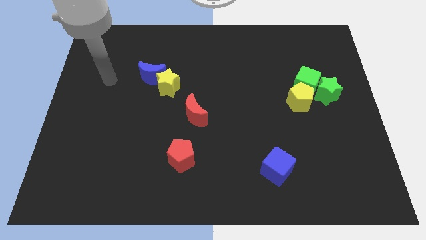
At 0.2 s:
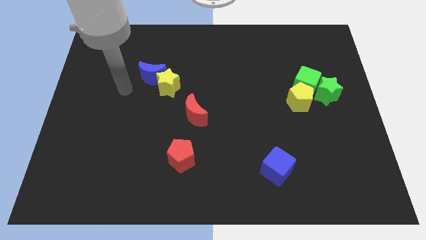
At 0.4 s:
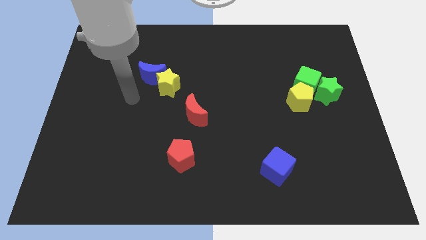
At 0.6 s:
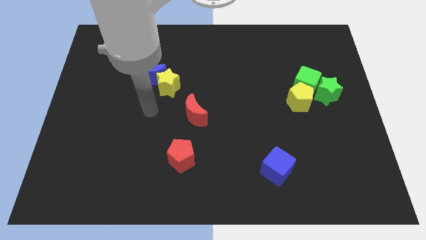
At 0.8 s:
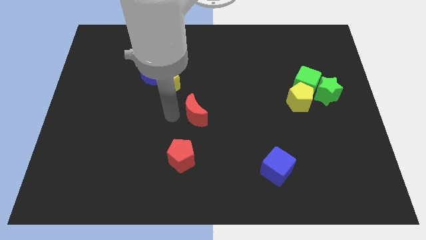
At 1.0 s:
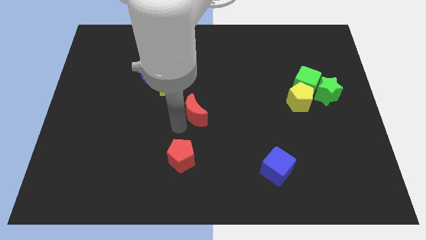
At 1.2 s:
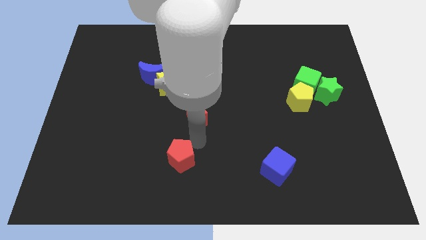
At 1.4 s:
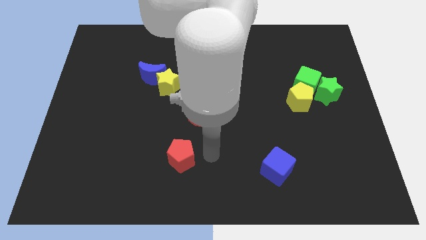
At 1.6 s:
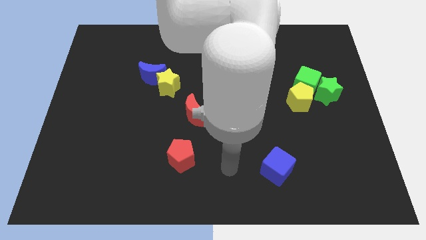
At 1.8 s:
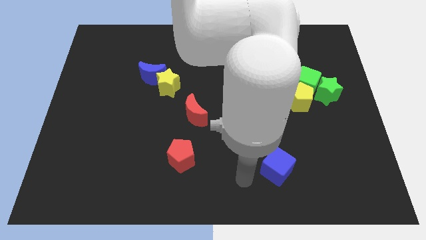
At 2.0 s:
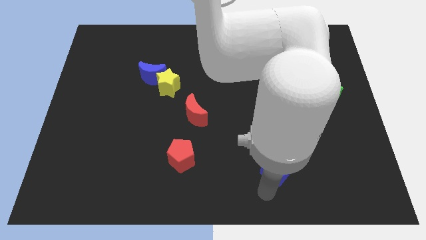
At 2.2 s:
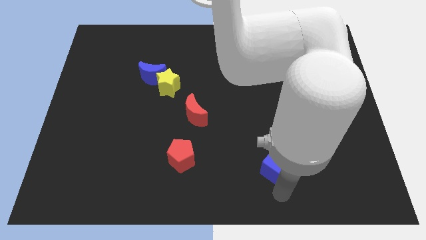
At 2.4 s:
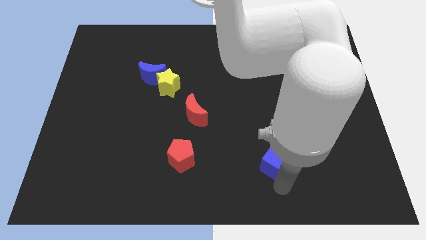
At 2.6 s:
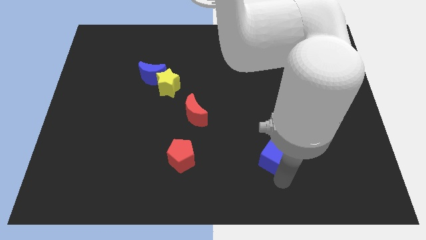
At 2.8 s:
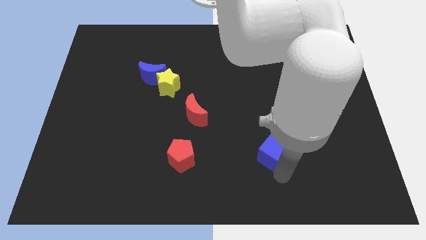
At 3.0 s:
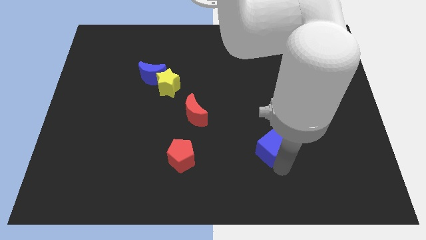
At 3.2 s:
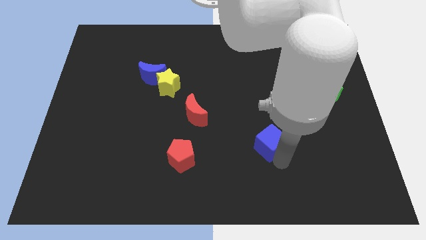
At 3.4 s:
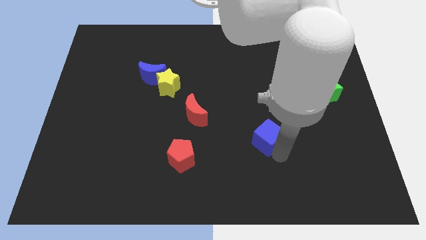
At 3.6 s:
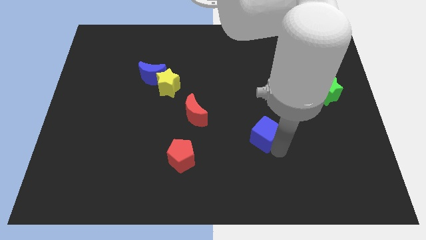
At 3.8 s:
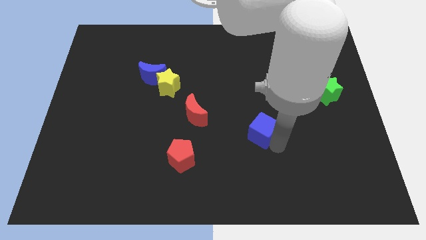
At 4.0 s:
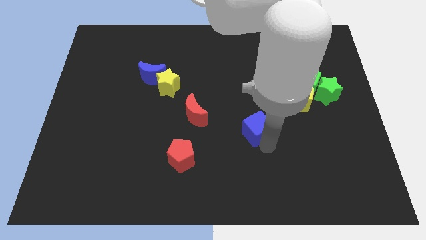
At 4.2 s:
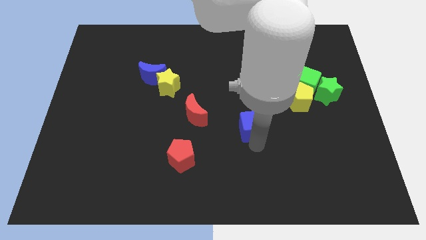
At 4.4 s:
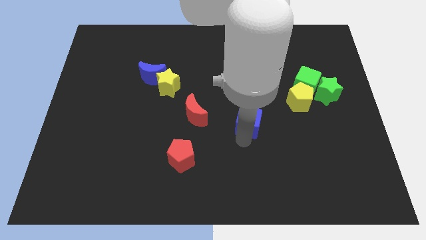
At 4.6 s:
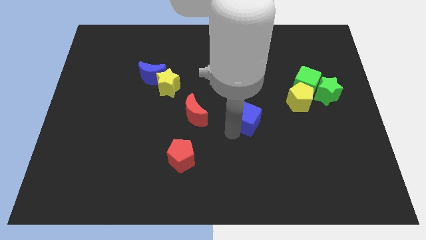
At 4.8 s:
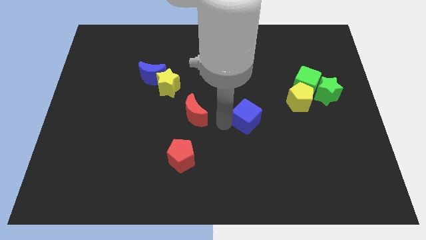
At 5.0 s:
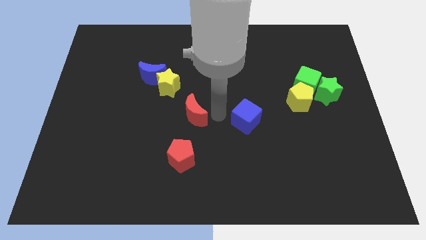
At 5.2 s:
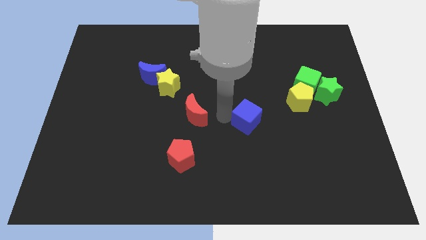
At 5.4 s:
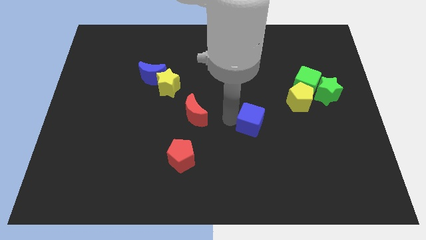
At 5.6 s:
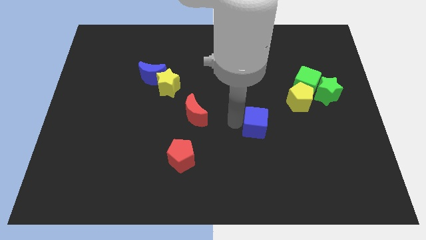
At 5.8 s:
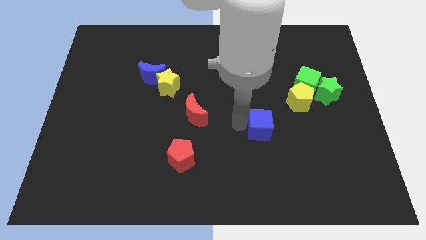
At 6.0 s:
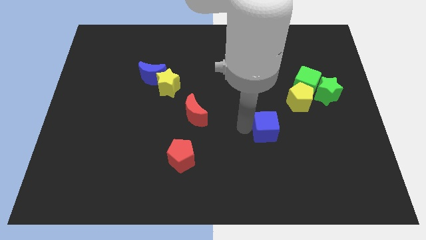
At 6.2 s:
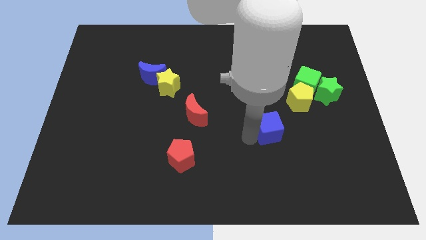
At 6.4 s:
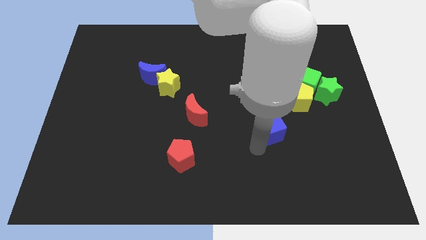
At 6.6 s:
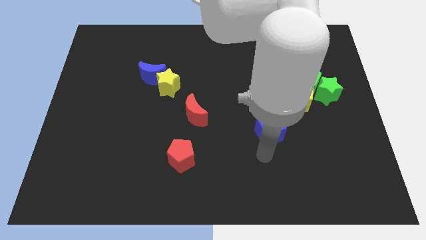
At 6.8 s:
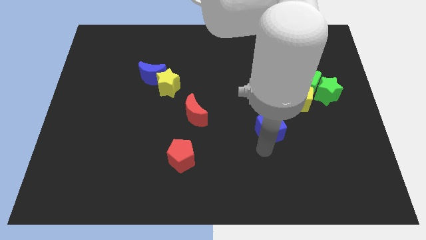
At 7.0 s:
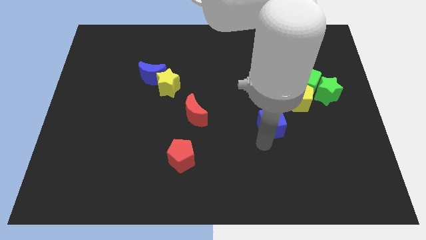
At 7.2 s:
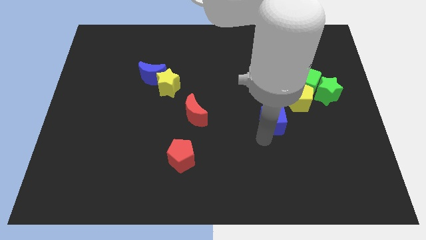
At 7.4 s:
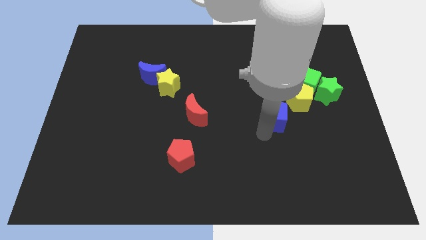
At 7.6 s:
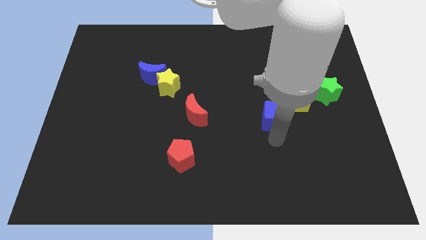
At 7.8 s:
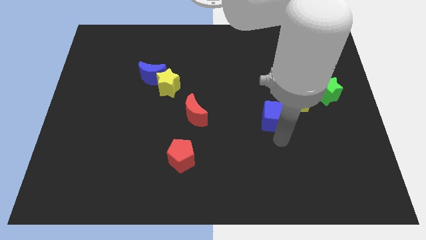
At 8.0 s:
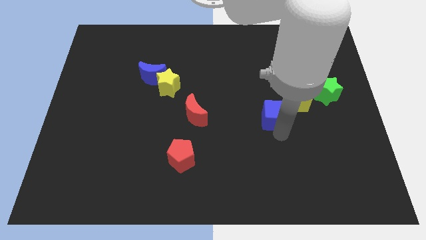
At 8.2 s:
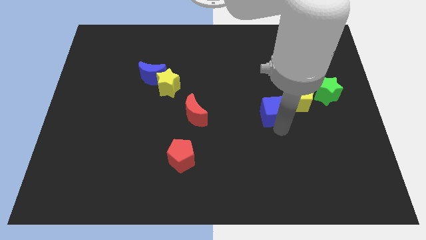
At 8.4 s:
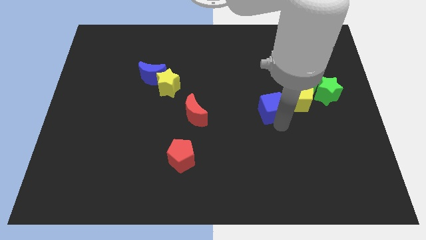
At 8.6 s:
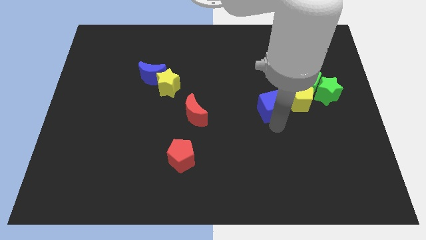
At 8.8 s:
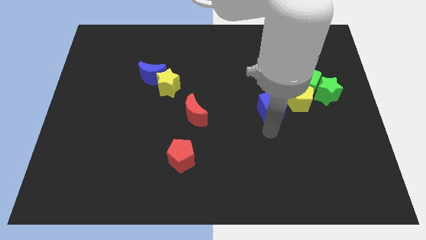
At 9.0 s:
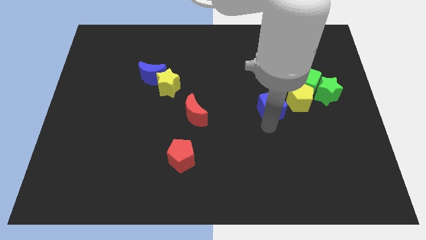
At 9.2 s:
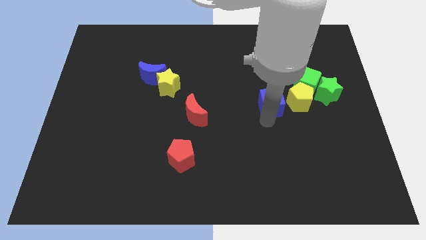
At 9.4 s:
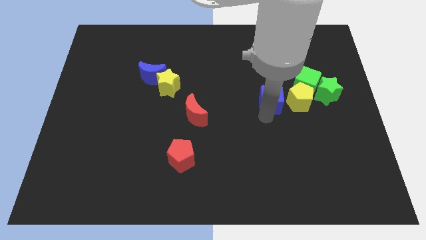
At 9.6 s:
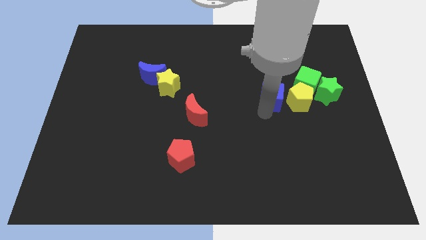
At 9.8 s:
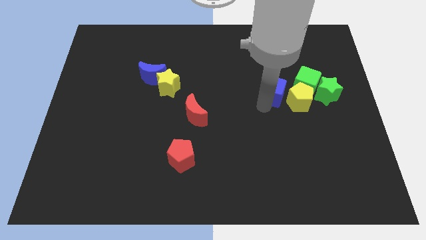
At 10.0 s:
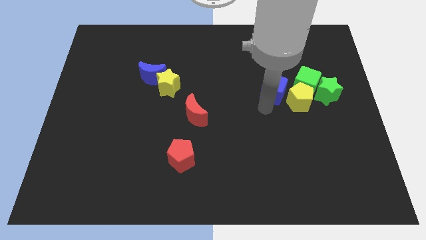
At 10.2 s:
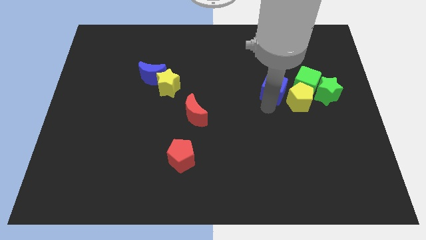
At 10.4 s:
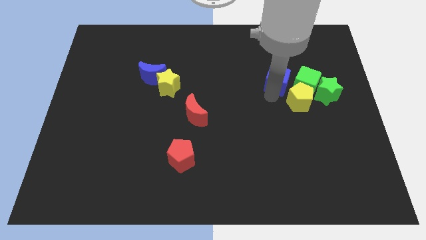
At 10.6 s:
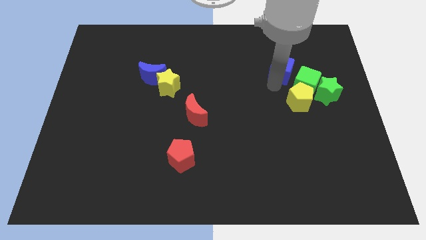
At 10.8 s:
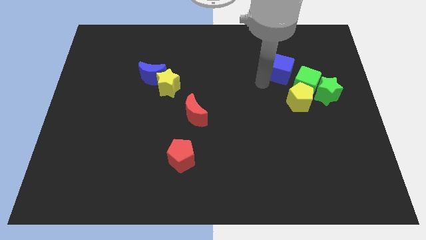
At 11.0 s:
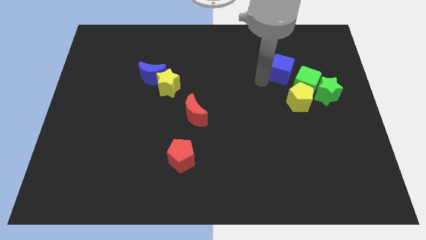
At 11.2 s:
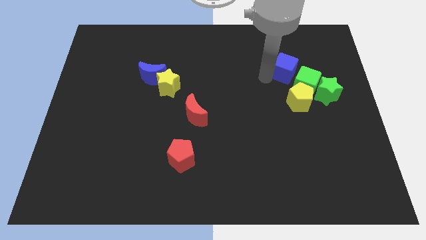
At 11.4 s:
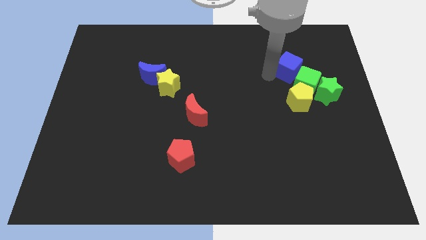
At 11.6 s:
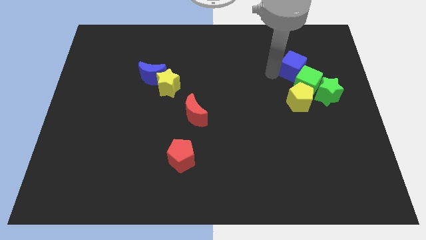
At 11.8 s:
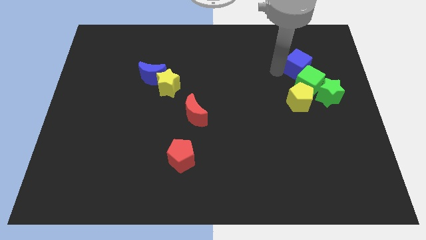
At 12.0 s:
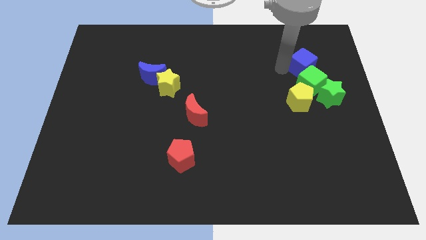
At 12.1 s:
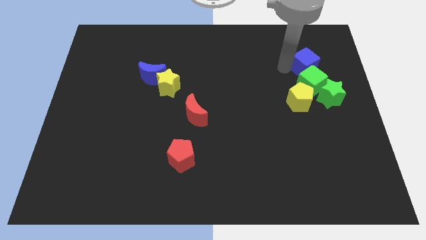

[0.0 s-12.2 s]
put the blue cube to the top of the green star

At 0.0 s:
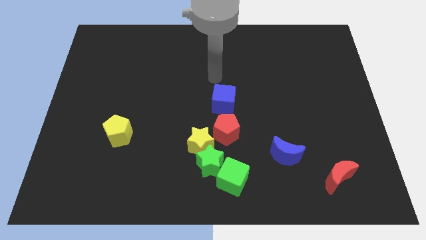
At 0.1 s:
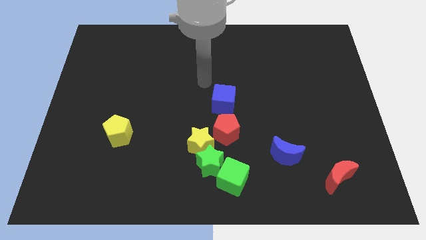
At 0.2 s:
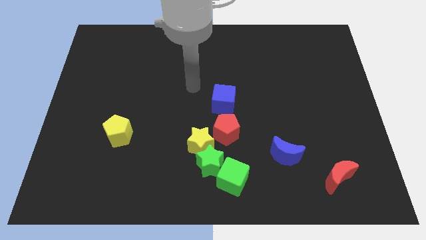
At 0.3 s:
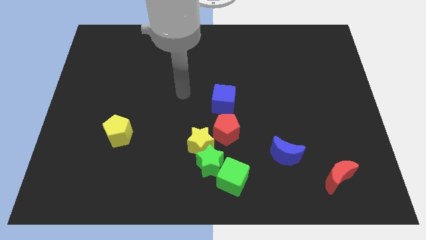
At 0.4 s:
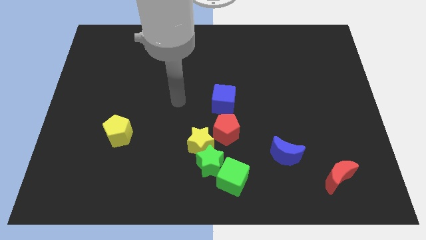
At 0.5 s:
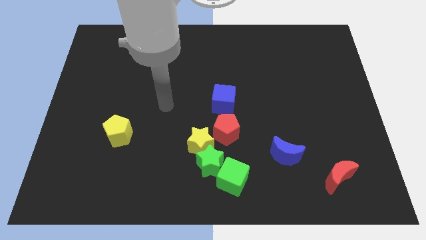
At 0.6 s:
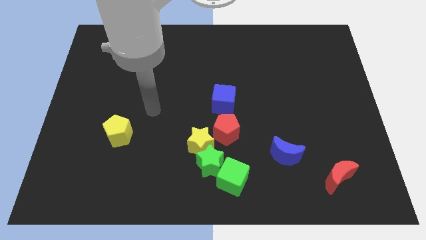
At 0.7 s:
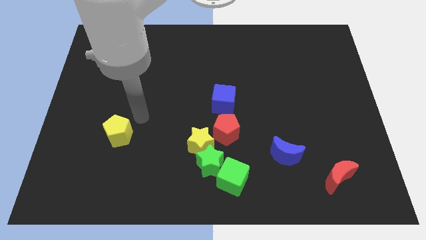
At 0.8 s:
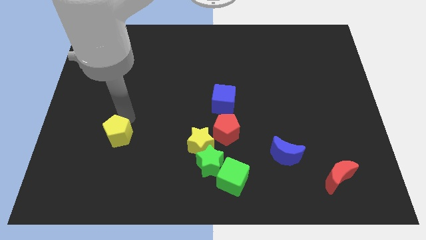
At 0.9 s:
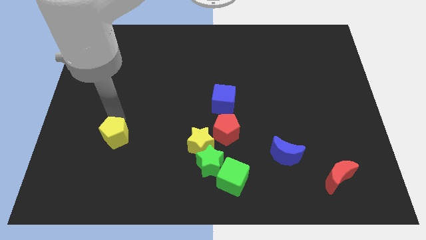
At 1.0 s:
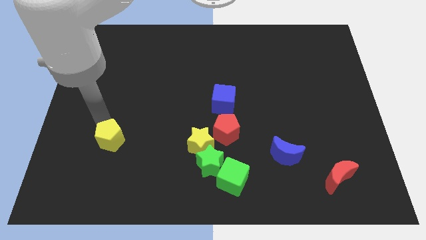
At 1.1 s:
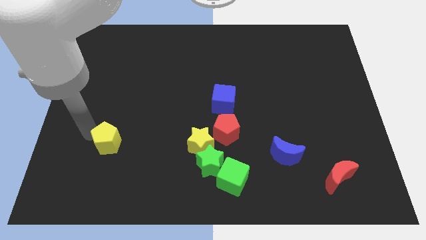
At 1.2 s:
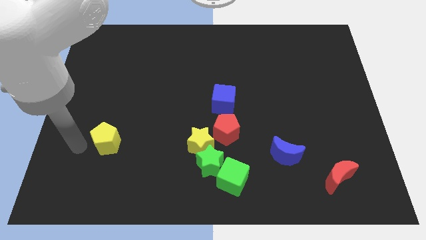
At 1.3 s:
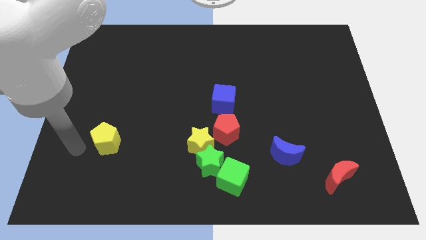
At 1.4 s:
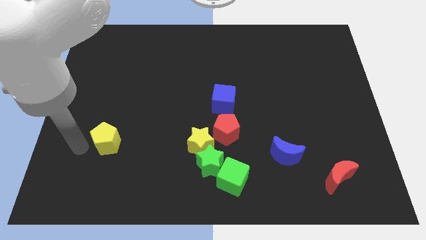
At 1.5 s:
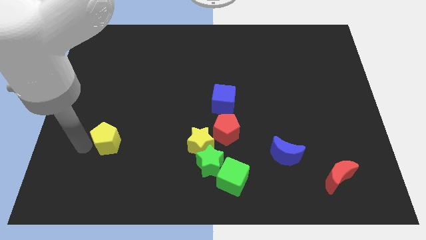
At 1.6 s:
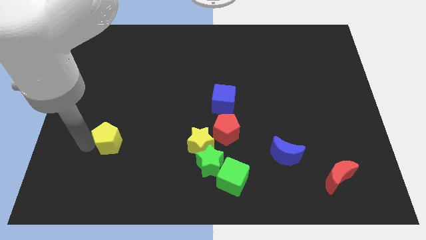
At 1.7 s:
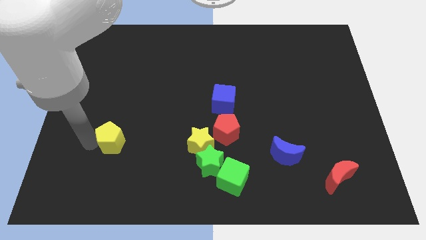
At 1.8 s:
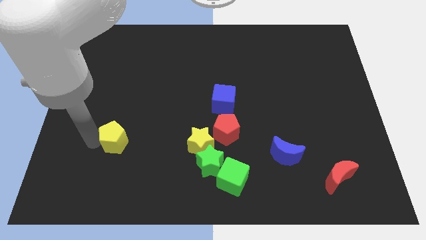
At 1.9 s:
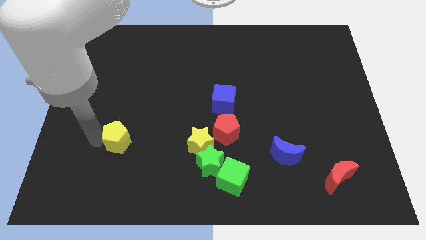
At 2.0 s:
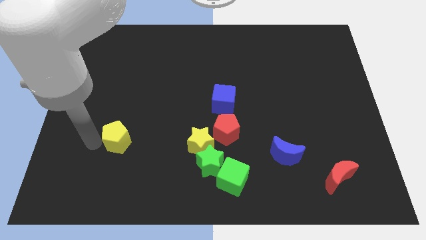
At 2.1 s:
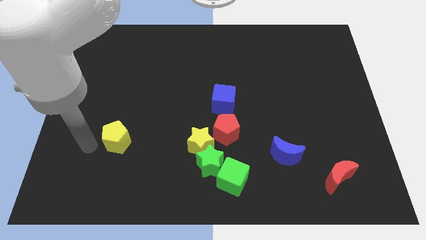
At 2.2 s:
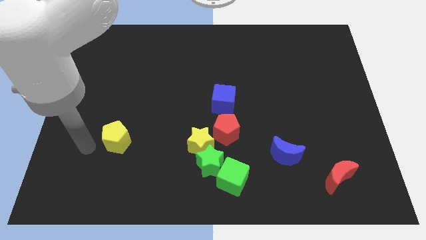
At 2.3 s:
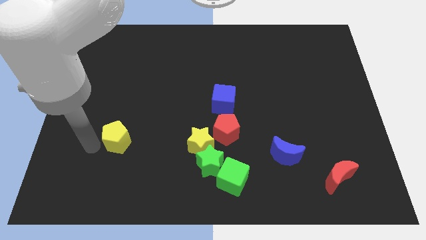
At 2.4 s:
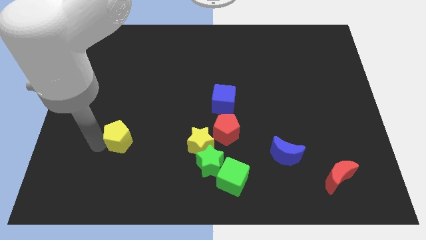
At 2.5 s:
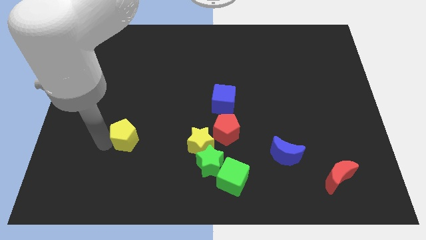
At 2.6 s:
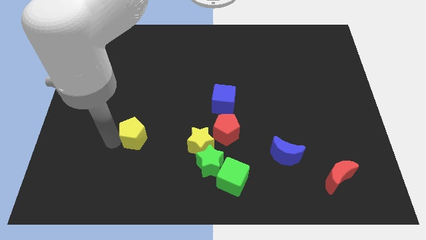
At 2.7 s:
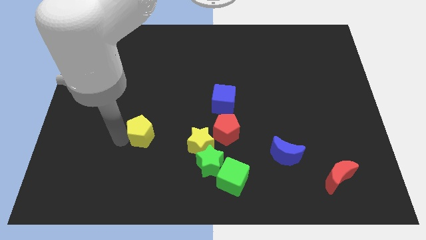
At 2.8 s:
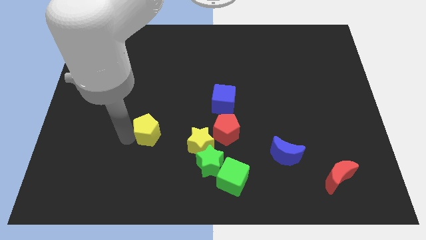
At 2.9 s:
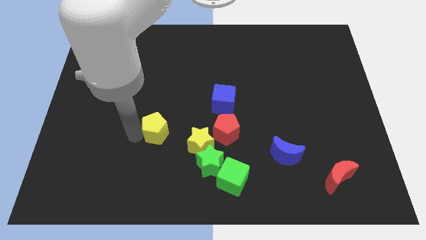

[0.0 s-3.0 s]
put the yellow pentagon to the left side of the red pentagon
